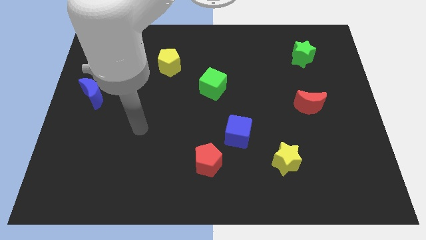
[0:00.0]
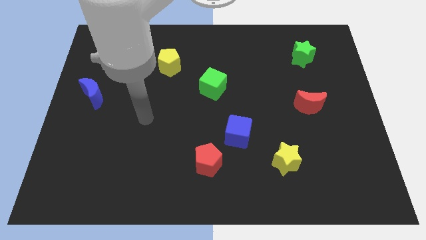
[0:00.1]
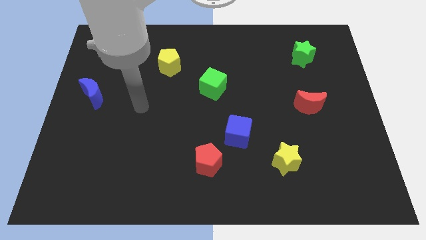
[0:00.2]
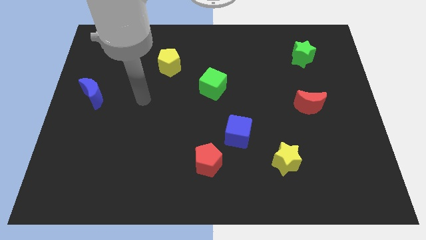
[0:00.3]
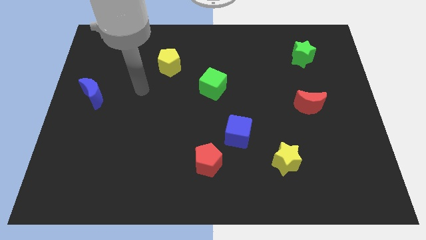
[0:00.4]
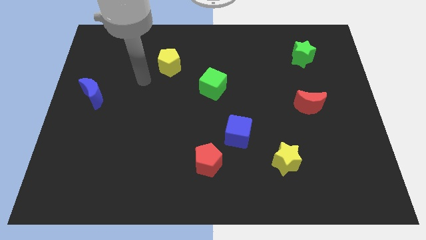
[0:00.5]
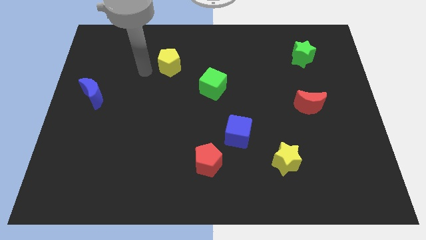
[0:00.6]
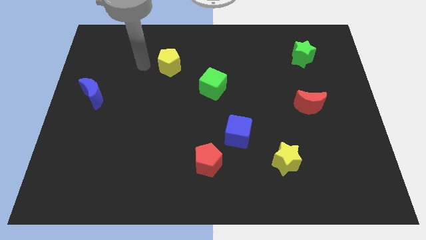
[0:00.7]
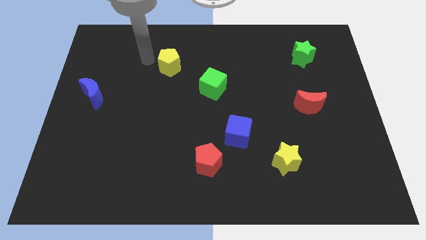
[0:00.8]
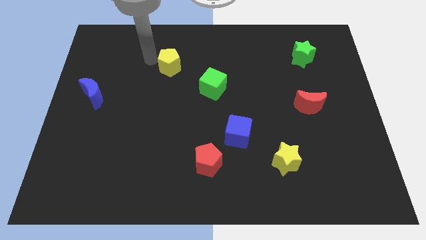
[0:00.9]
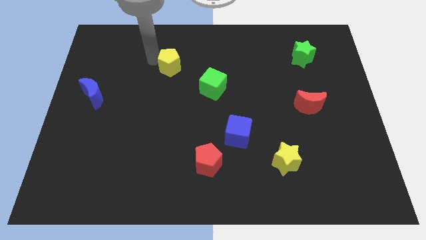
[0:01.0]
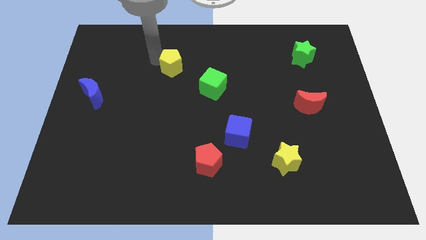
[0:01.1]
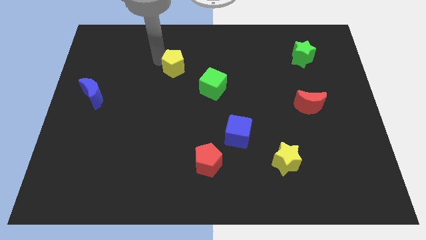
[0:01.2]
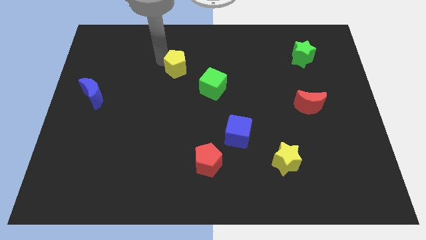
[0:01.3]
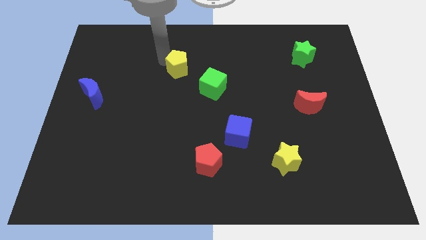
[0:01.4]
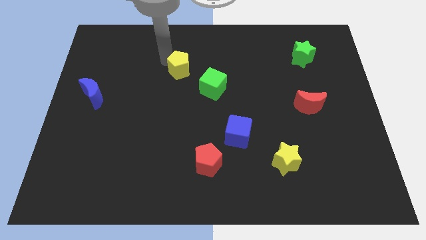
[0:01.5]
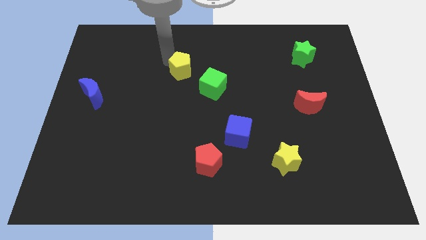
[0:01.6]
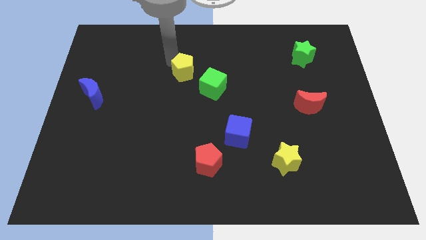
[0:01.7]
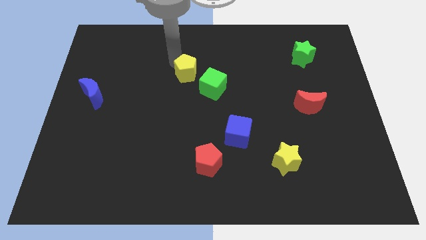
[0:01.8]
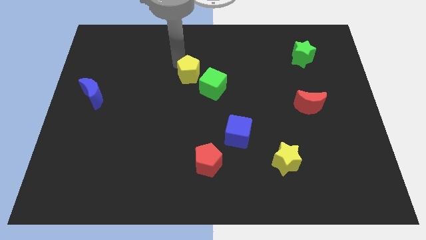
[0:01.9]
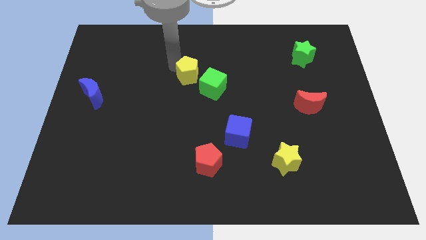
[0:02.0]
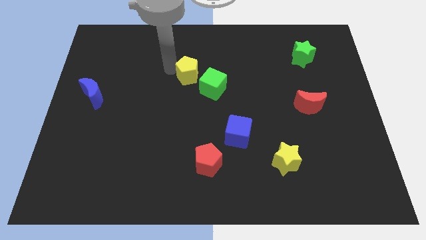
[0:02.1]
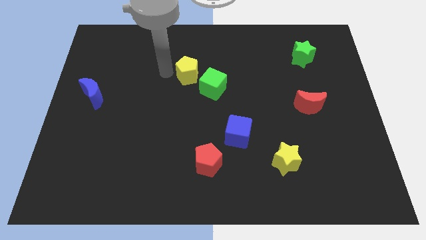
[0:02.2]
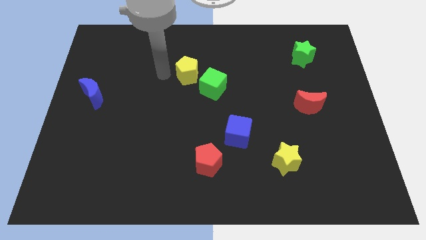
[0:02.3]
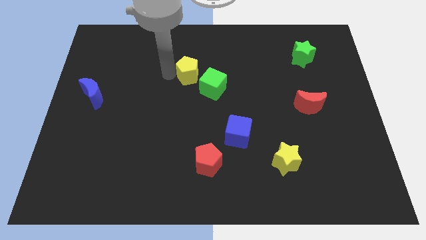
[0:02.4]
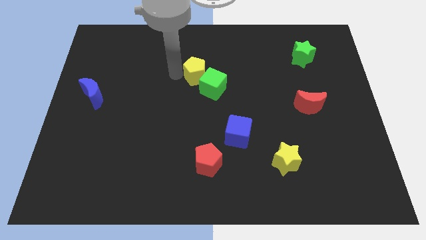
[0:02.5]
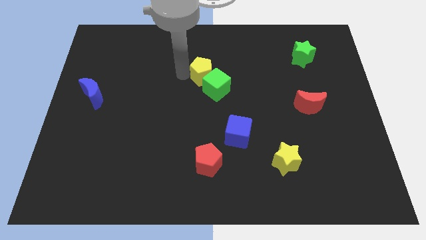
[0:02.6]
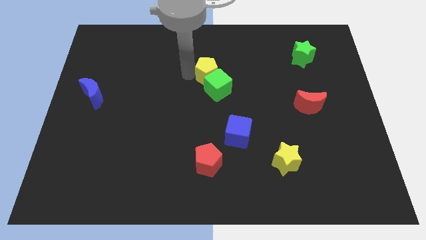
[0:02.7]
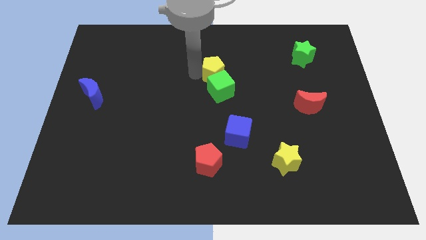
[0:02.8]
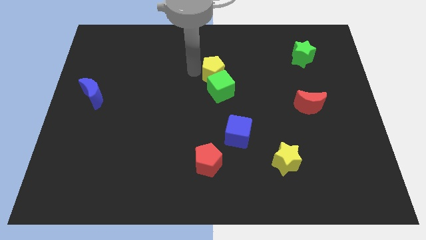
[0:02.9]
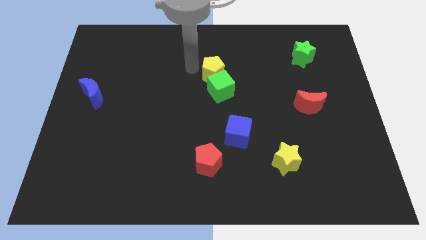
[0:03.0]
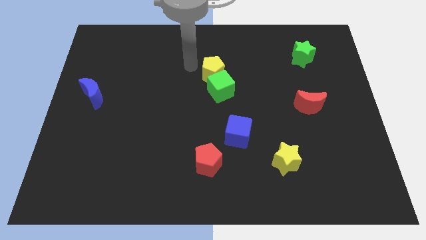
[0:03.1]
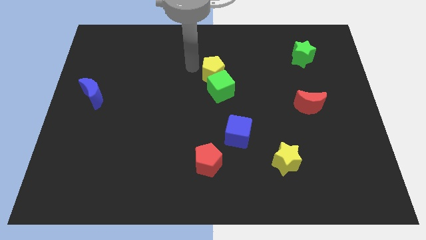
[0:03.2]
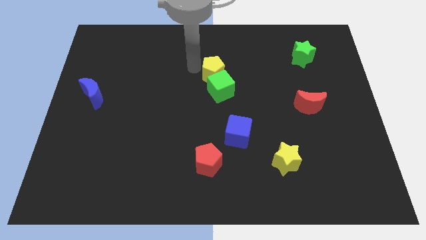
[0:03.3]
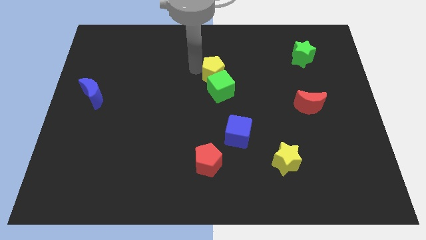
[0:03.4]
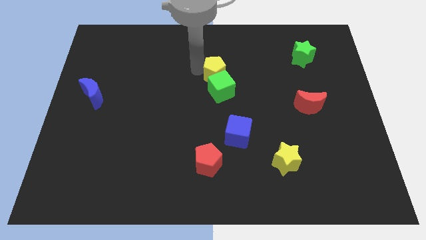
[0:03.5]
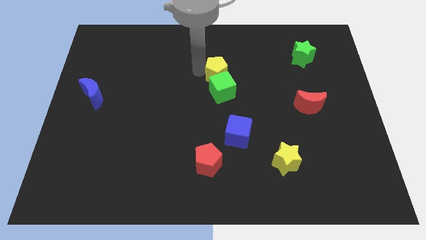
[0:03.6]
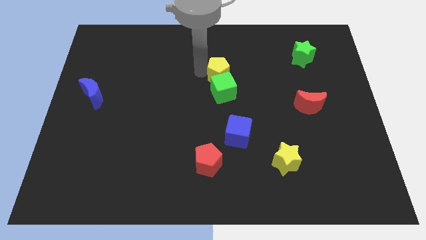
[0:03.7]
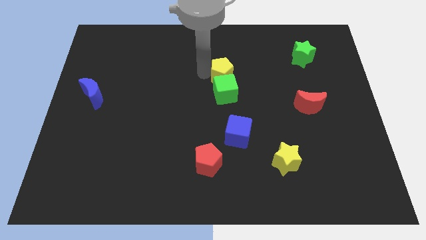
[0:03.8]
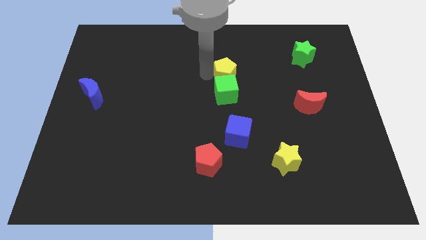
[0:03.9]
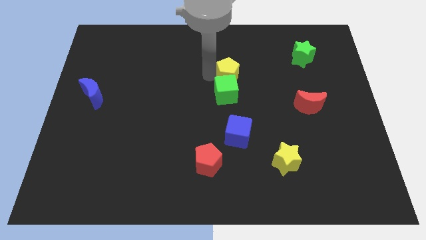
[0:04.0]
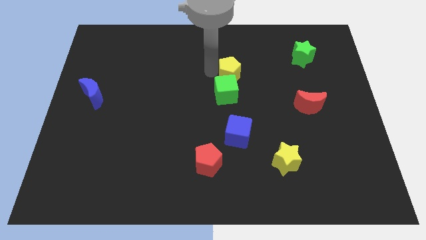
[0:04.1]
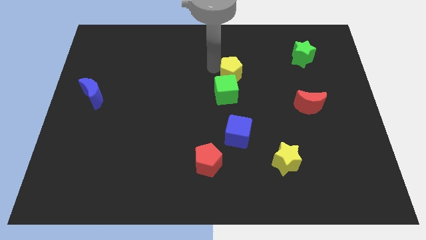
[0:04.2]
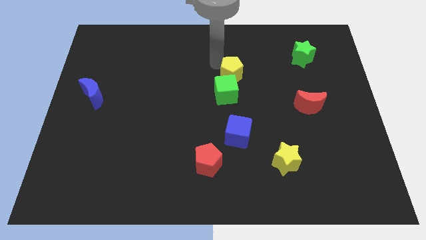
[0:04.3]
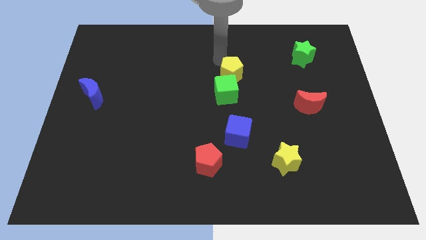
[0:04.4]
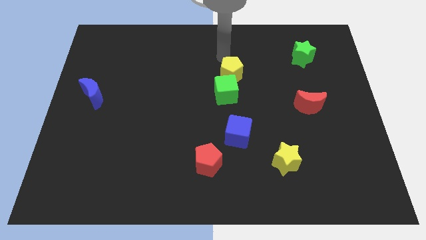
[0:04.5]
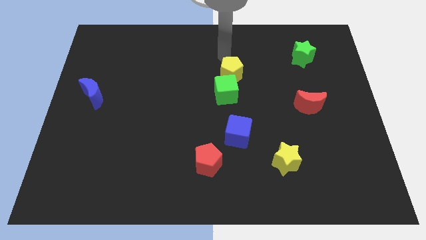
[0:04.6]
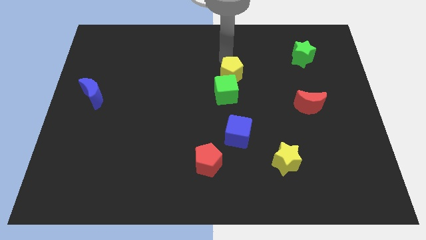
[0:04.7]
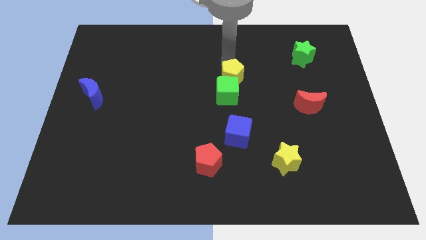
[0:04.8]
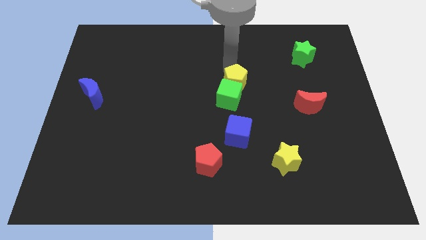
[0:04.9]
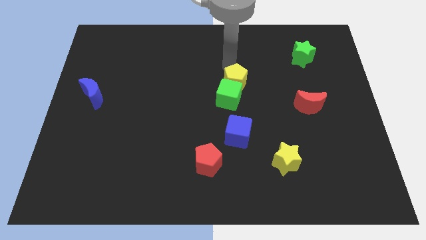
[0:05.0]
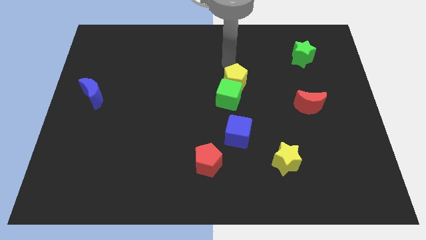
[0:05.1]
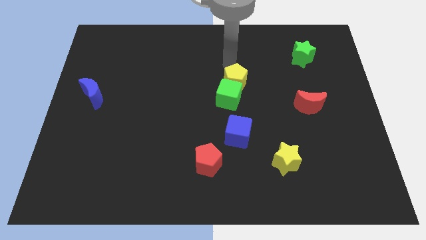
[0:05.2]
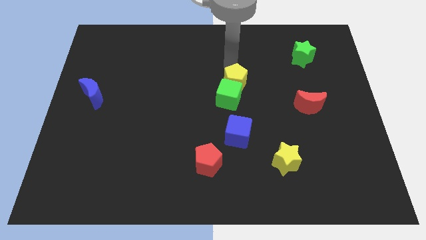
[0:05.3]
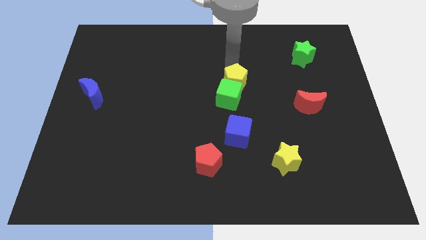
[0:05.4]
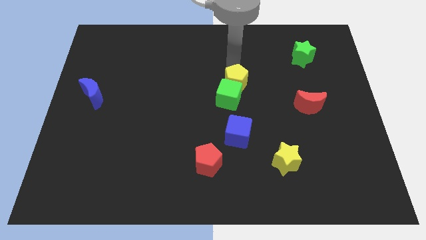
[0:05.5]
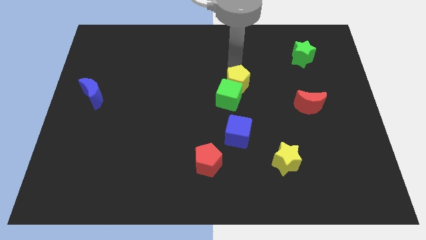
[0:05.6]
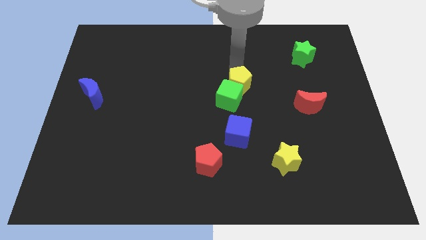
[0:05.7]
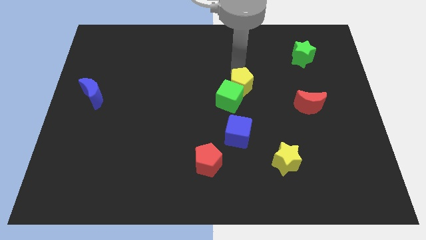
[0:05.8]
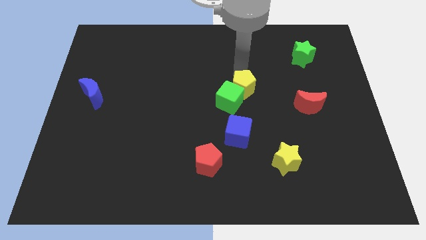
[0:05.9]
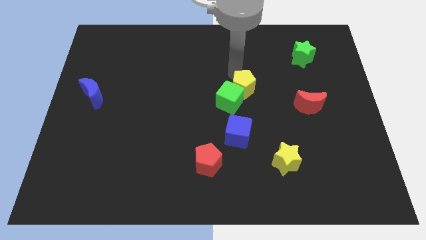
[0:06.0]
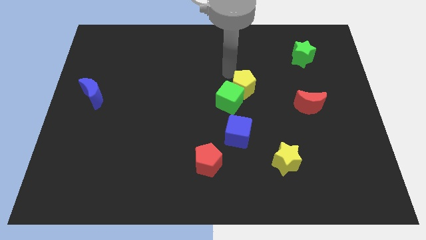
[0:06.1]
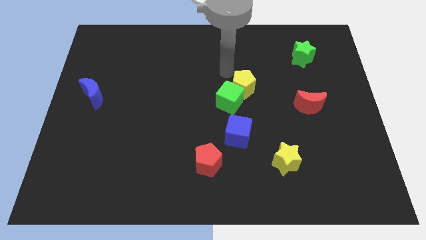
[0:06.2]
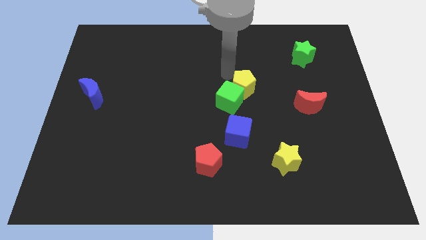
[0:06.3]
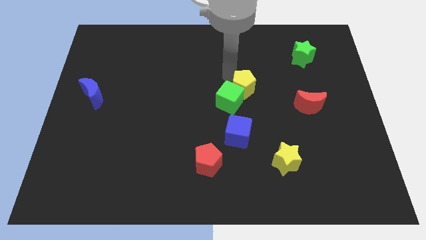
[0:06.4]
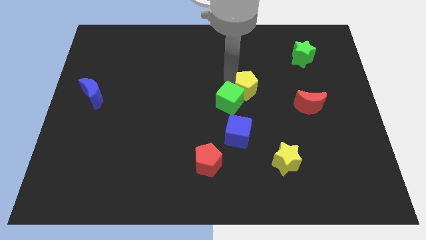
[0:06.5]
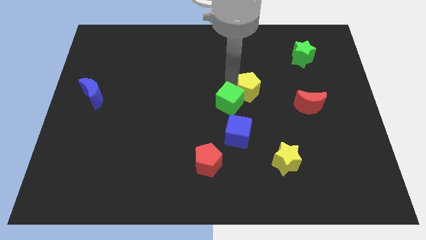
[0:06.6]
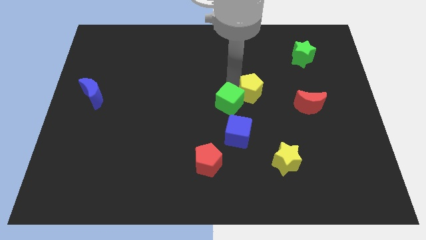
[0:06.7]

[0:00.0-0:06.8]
put the yellow pentagon to the left side of the red moon
